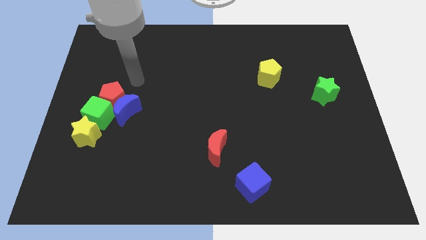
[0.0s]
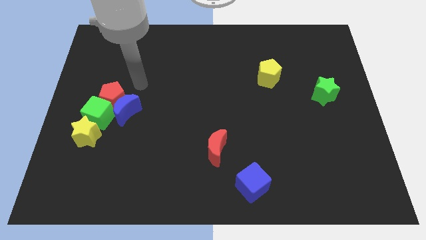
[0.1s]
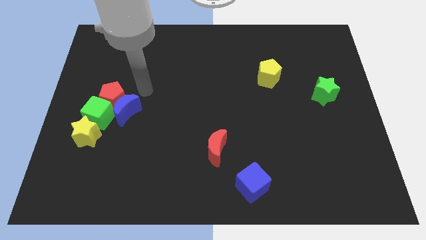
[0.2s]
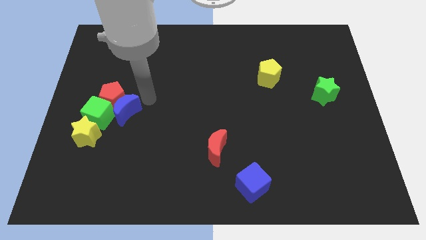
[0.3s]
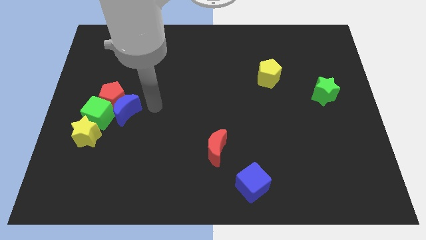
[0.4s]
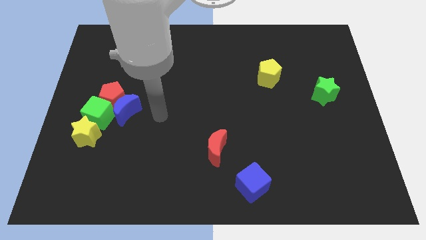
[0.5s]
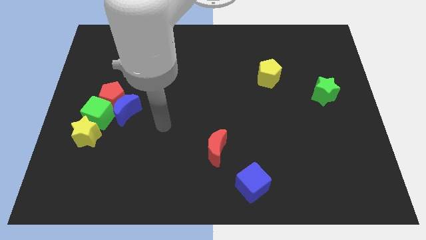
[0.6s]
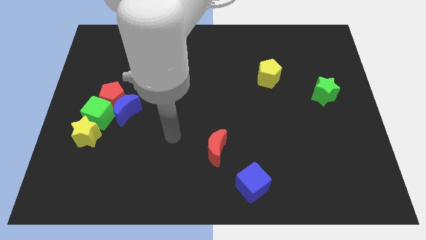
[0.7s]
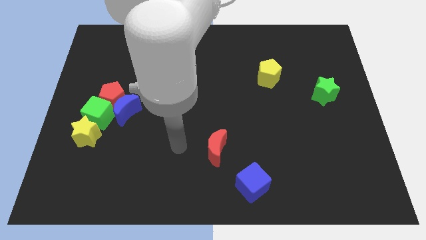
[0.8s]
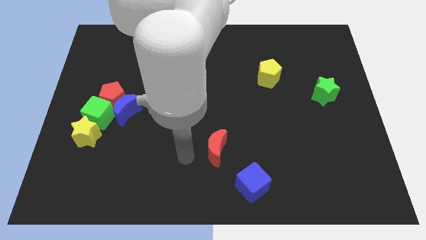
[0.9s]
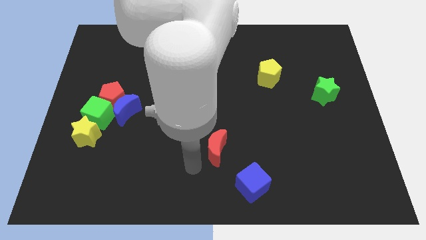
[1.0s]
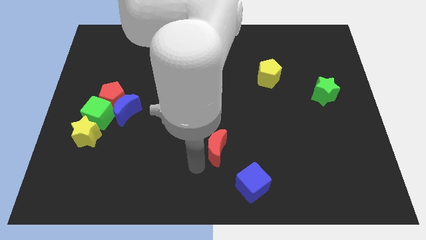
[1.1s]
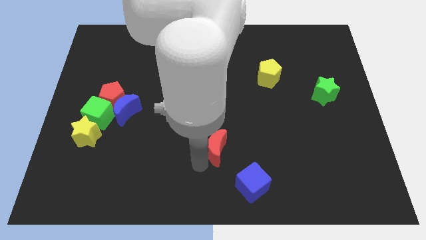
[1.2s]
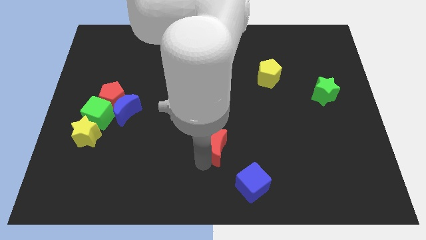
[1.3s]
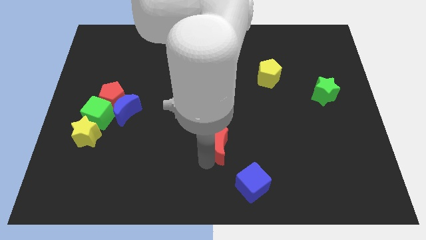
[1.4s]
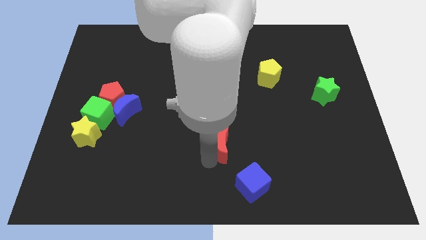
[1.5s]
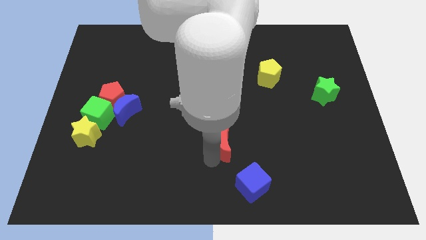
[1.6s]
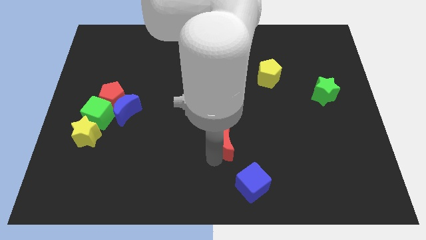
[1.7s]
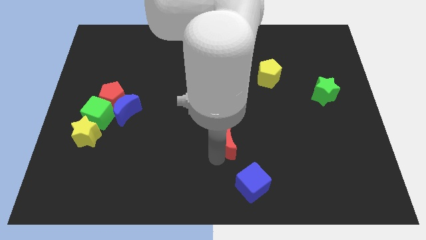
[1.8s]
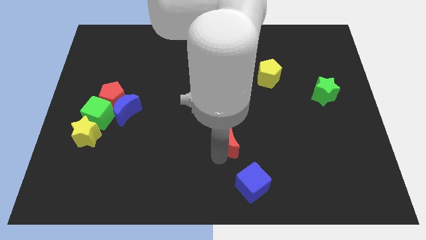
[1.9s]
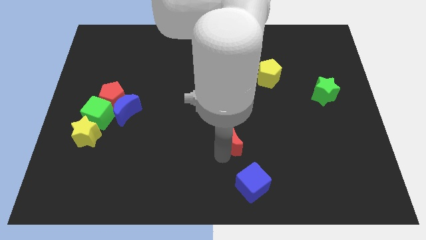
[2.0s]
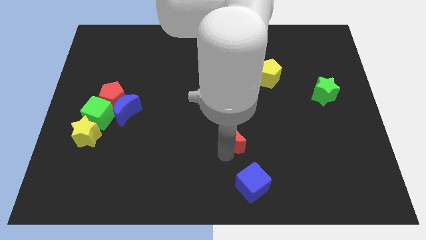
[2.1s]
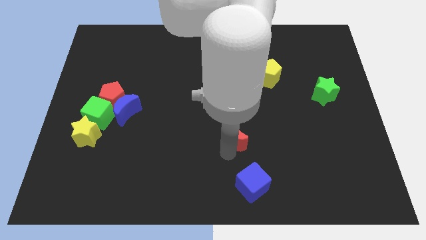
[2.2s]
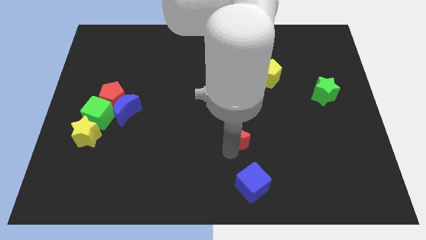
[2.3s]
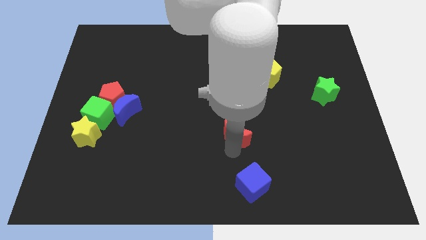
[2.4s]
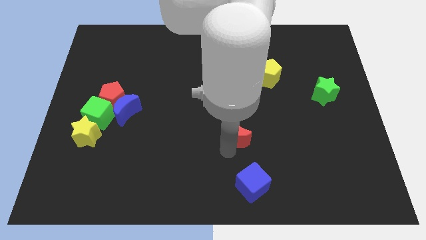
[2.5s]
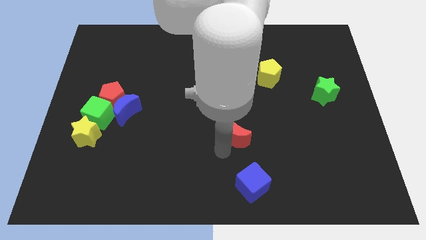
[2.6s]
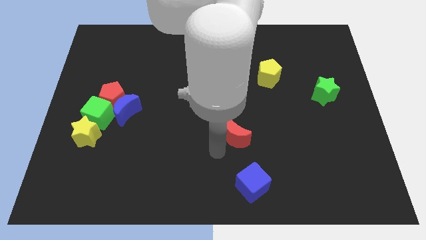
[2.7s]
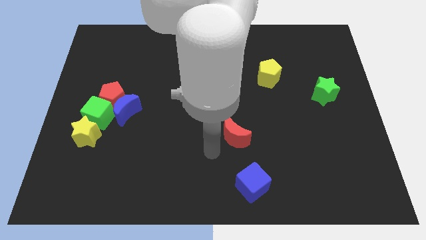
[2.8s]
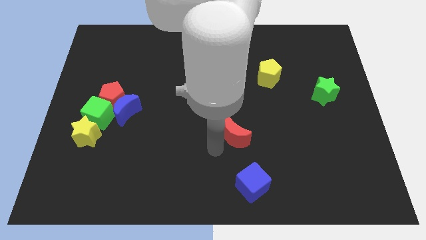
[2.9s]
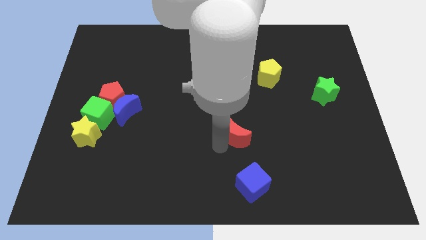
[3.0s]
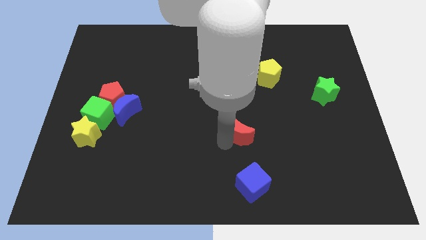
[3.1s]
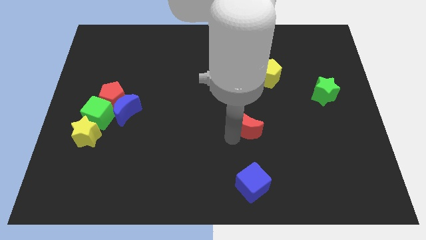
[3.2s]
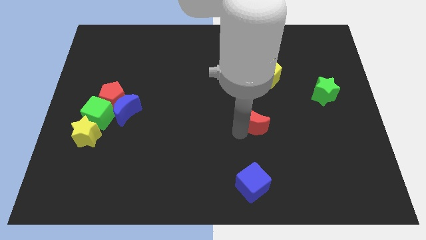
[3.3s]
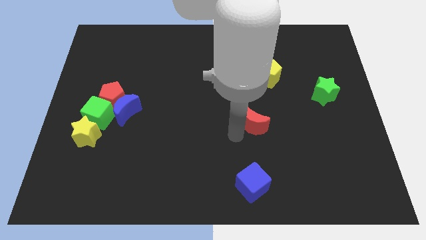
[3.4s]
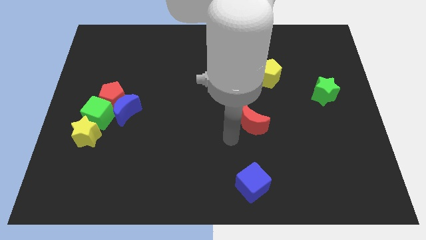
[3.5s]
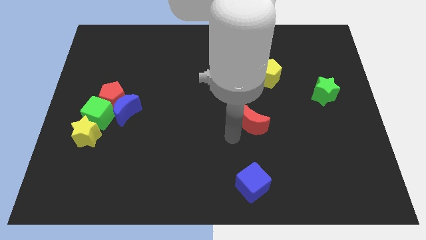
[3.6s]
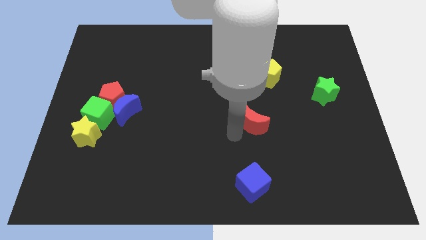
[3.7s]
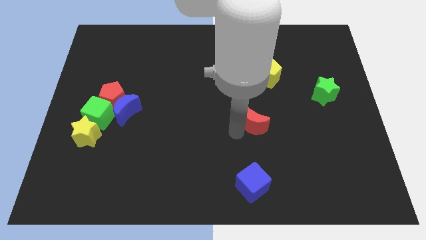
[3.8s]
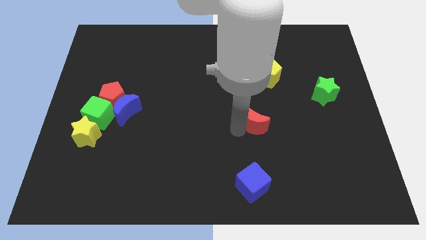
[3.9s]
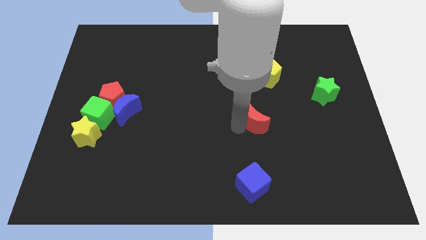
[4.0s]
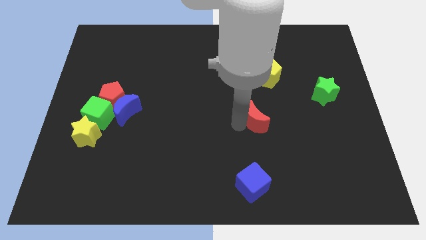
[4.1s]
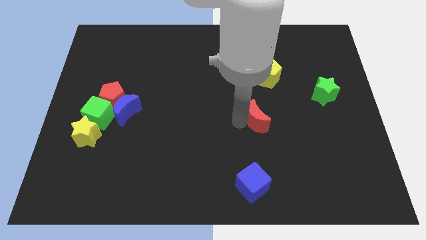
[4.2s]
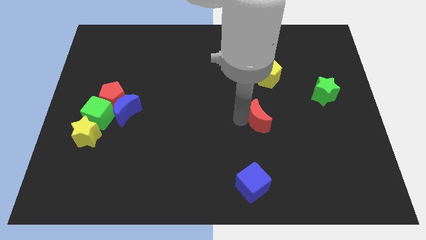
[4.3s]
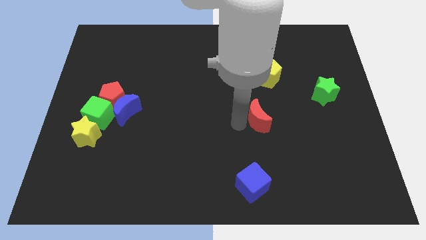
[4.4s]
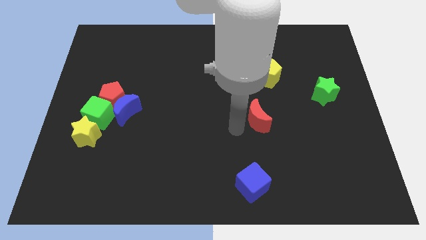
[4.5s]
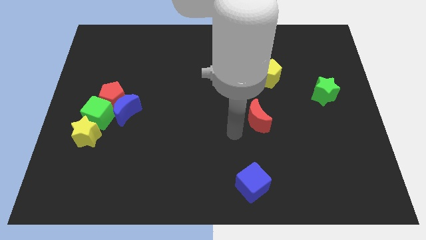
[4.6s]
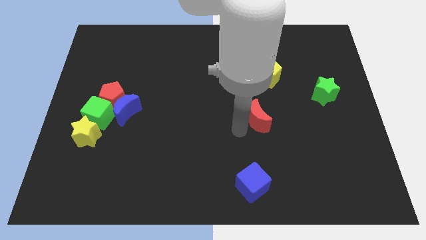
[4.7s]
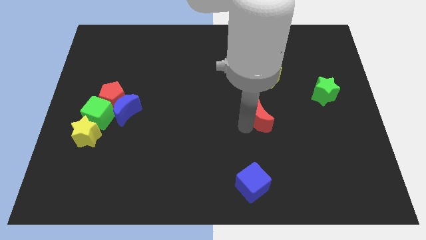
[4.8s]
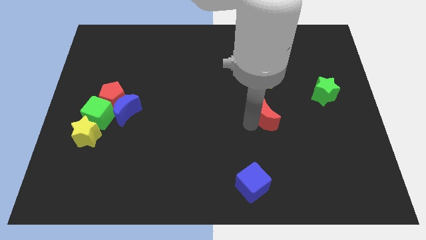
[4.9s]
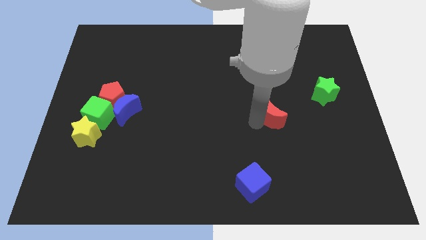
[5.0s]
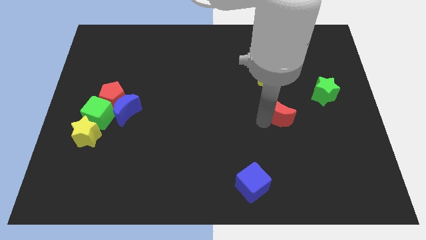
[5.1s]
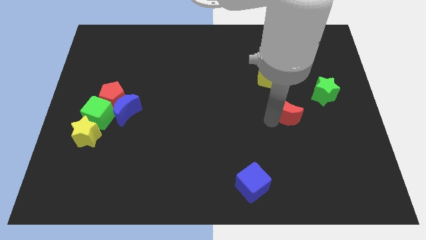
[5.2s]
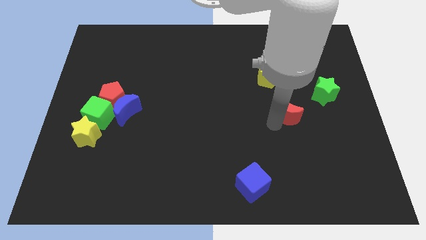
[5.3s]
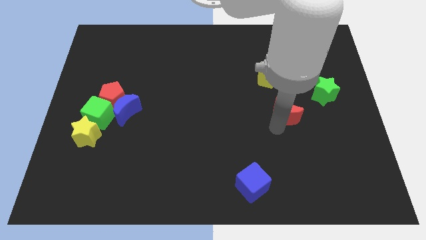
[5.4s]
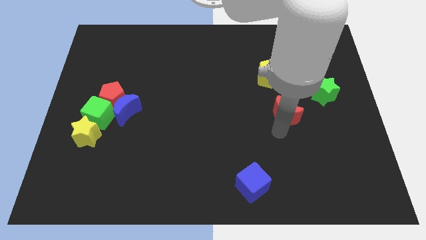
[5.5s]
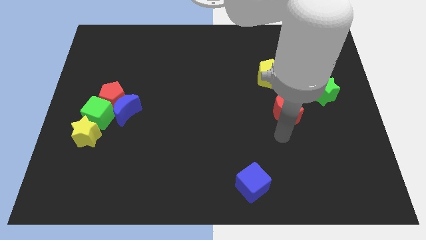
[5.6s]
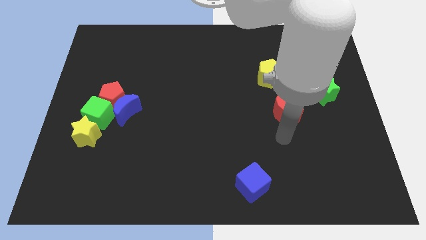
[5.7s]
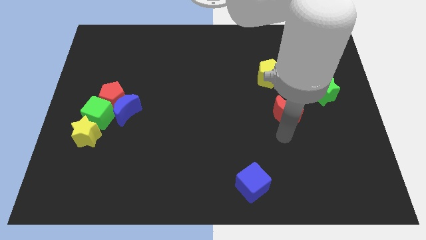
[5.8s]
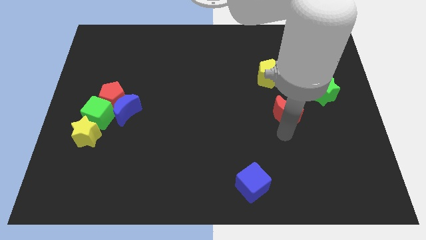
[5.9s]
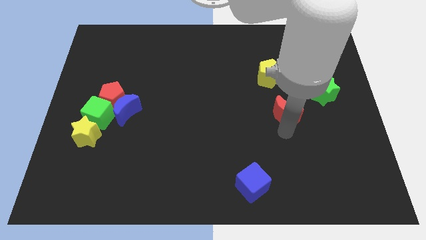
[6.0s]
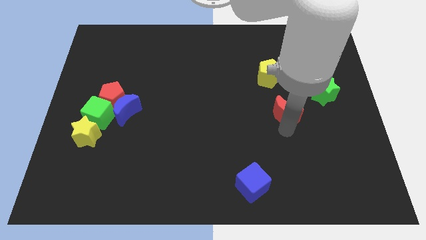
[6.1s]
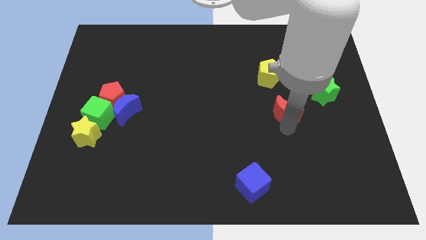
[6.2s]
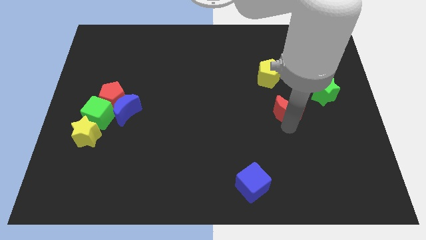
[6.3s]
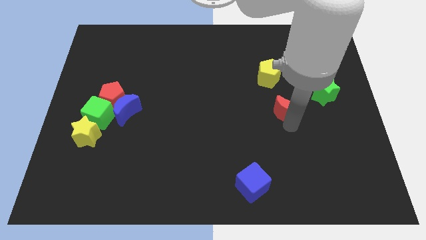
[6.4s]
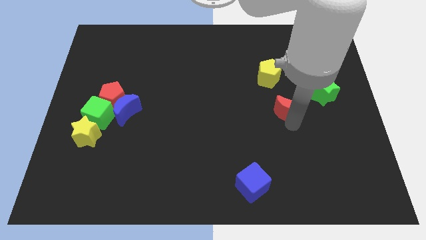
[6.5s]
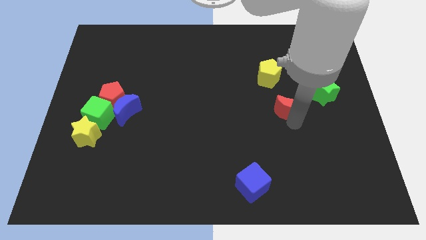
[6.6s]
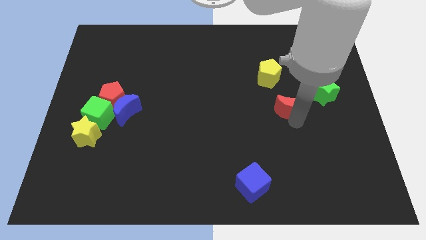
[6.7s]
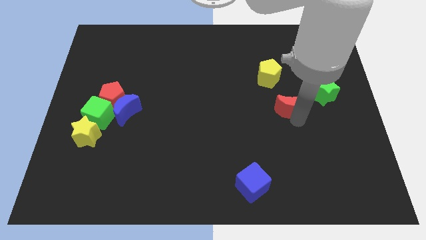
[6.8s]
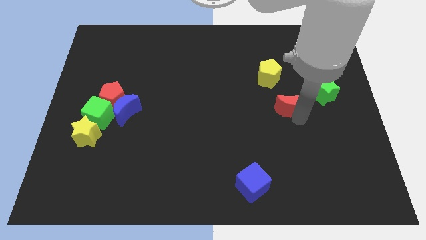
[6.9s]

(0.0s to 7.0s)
move the red moon up and to the right diagonally

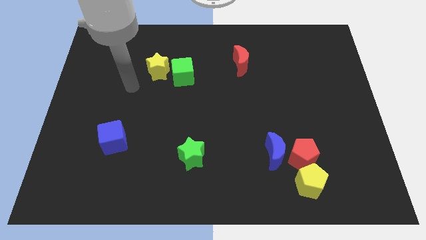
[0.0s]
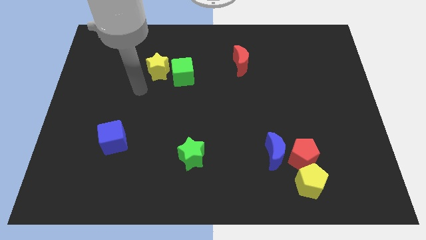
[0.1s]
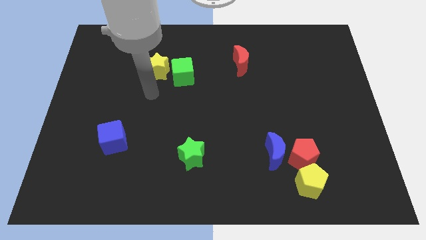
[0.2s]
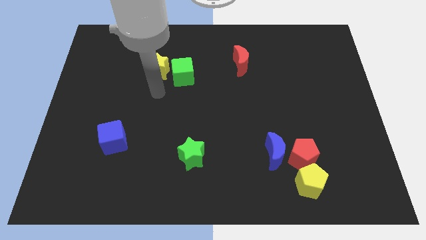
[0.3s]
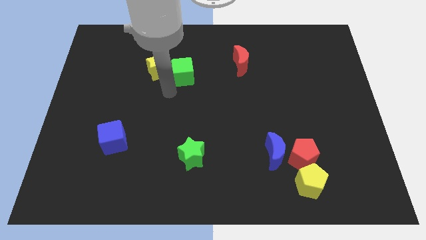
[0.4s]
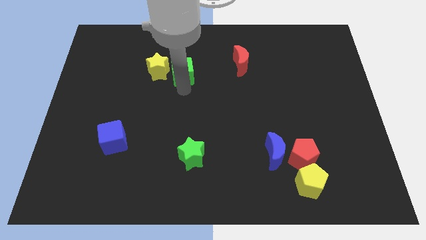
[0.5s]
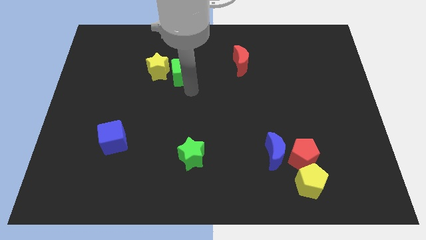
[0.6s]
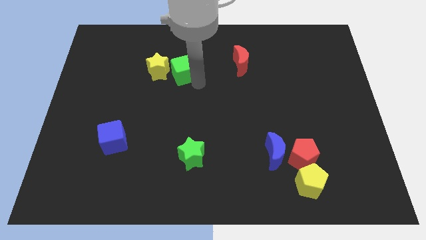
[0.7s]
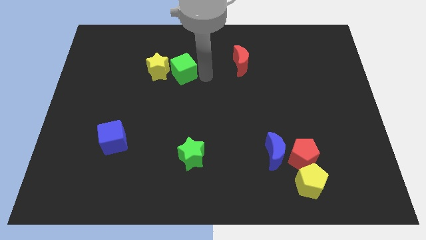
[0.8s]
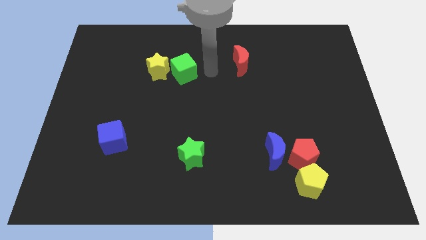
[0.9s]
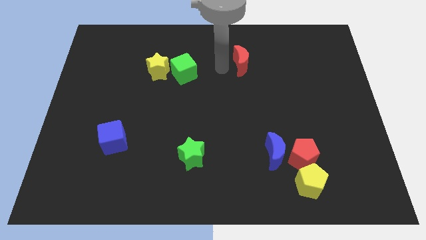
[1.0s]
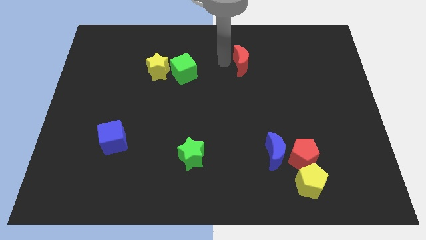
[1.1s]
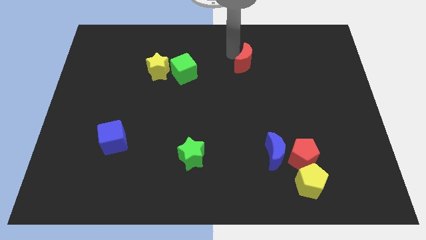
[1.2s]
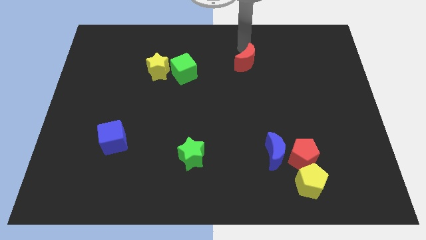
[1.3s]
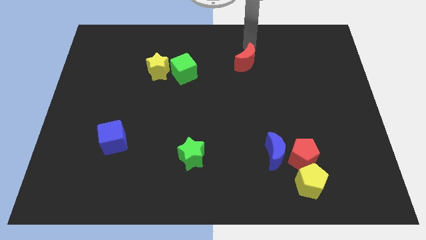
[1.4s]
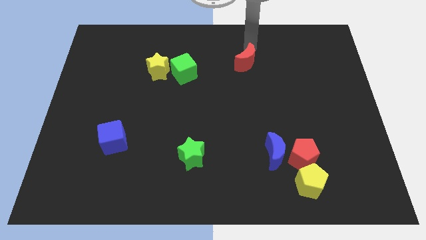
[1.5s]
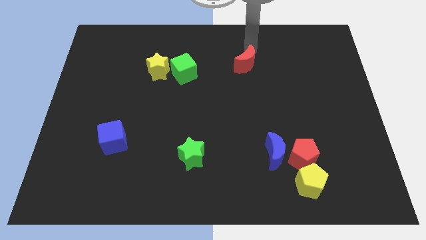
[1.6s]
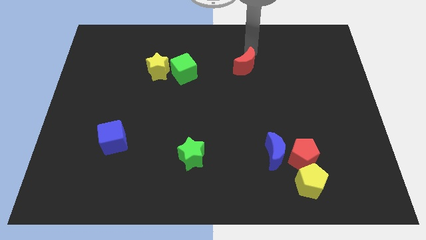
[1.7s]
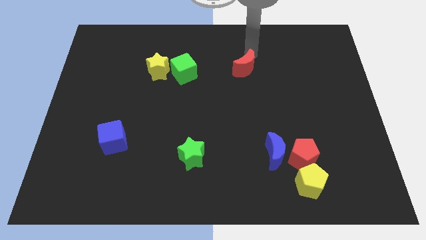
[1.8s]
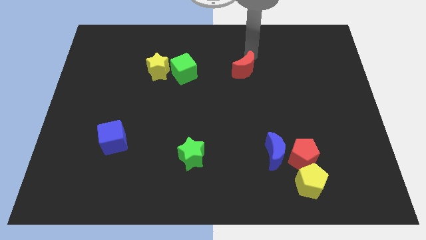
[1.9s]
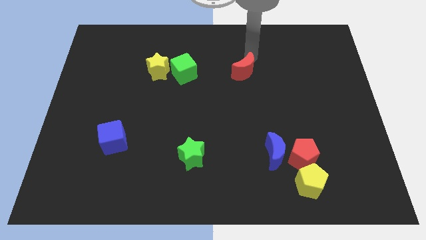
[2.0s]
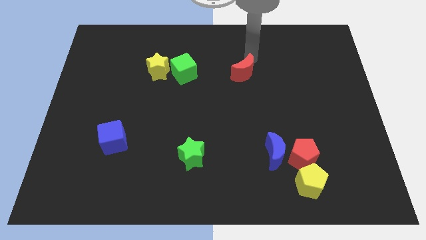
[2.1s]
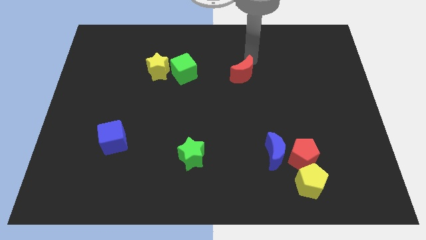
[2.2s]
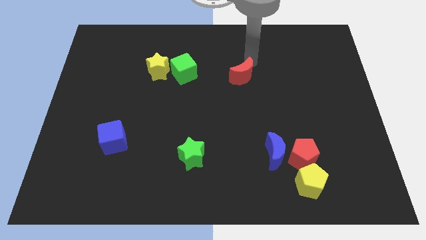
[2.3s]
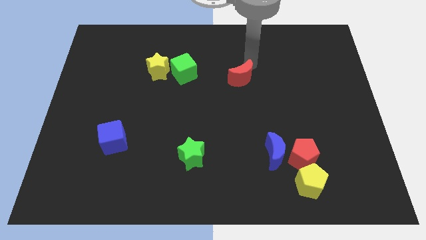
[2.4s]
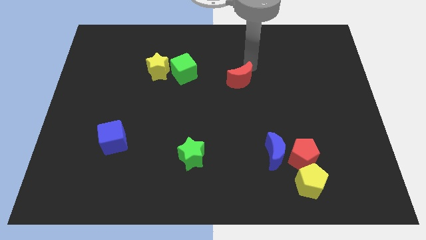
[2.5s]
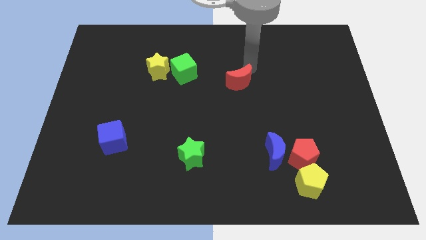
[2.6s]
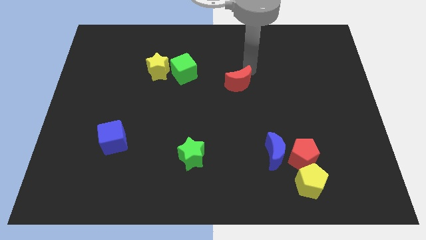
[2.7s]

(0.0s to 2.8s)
slightly push the red moon down
